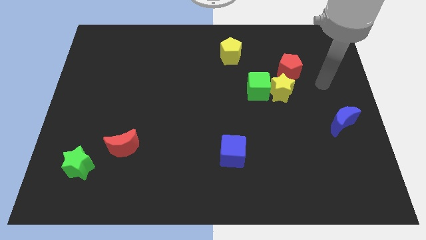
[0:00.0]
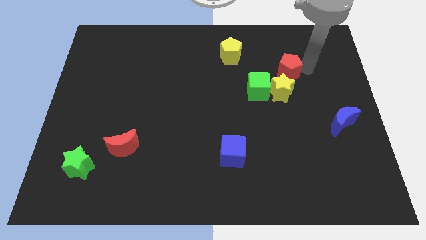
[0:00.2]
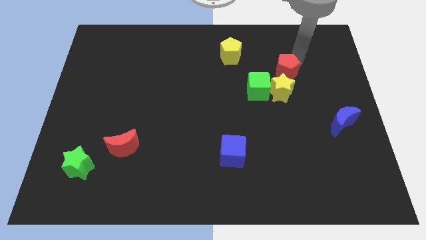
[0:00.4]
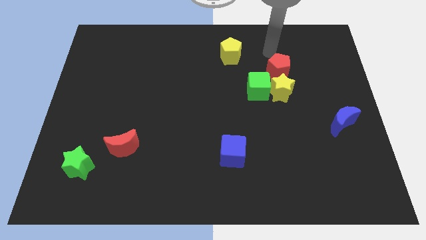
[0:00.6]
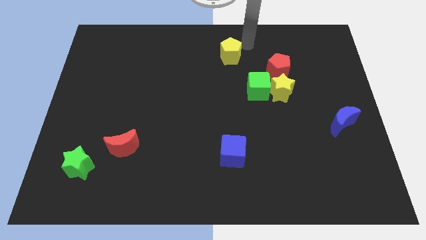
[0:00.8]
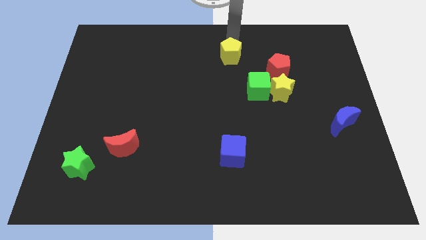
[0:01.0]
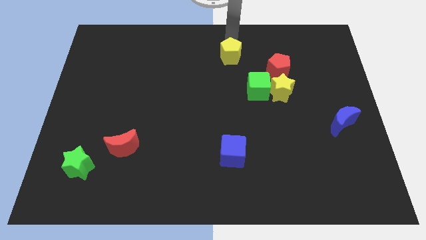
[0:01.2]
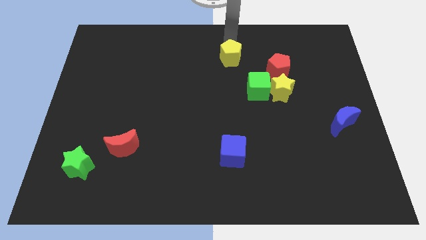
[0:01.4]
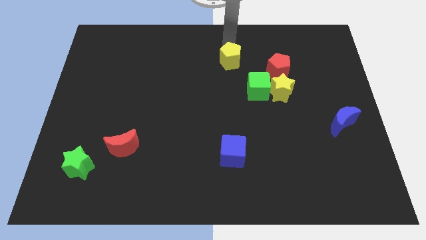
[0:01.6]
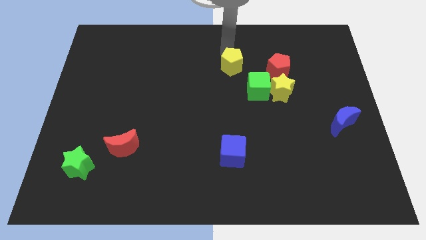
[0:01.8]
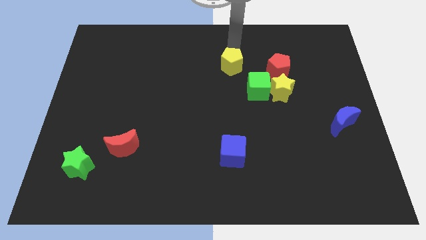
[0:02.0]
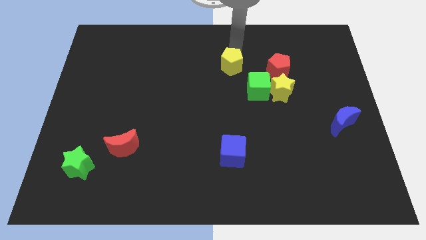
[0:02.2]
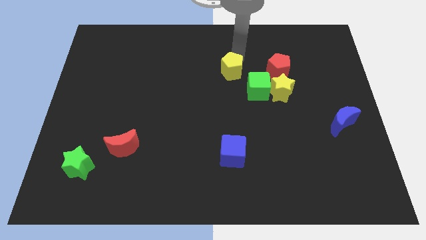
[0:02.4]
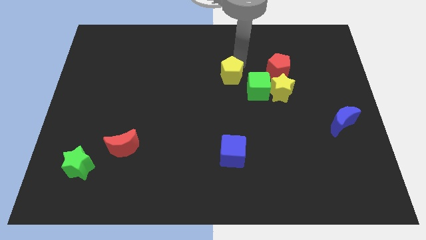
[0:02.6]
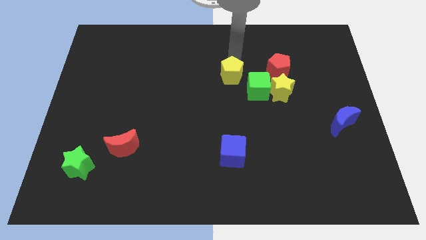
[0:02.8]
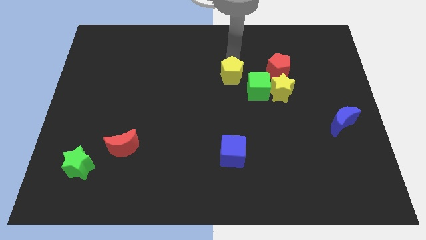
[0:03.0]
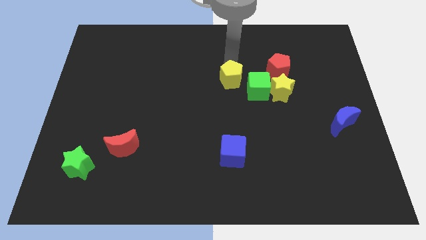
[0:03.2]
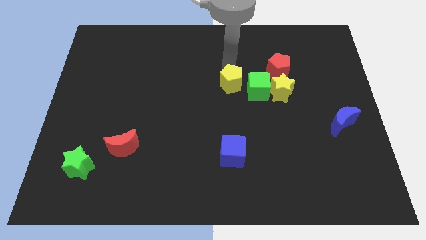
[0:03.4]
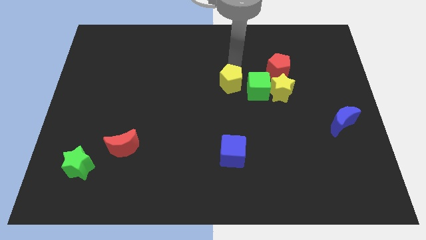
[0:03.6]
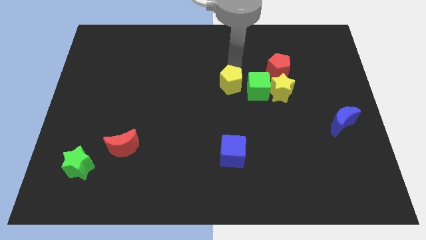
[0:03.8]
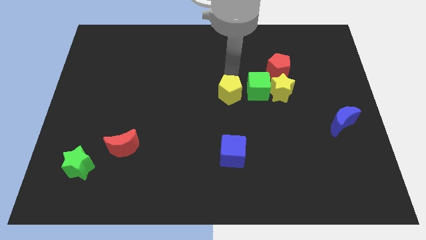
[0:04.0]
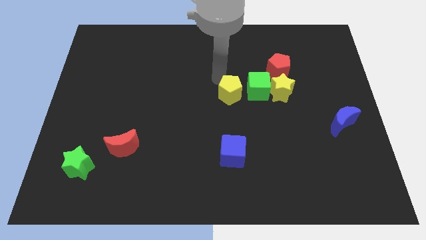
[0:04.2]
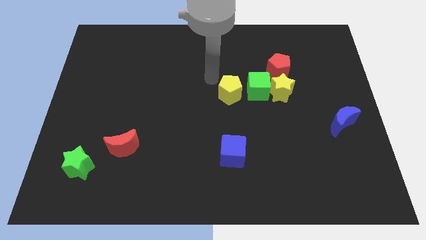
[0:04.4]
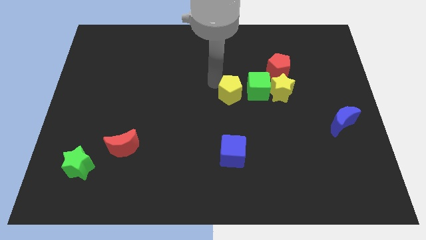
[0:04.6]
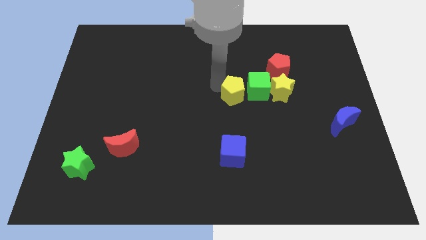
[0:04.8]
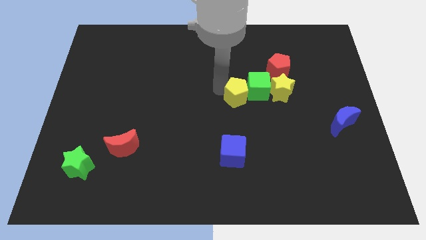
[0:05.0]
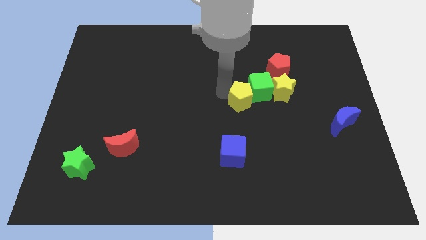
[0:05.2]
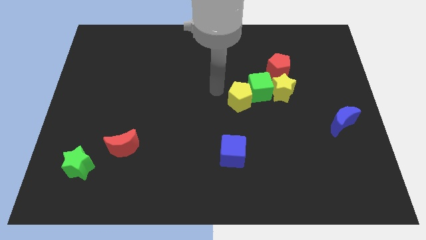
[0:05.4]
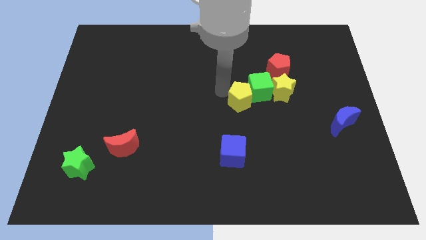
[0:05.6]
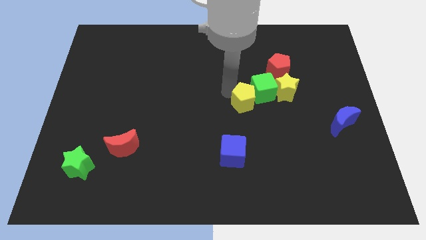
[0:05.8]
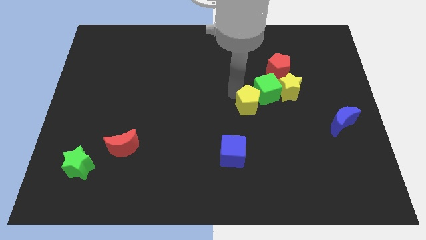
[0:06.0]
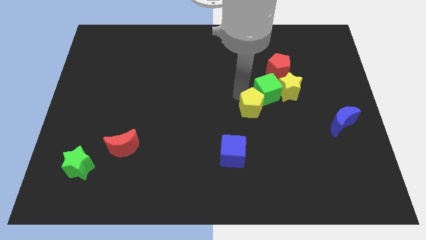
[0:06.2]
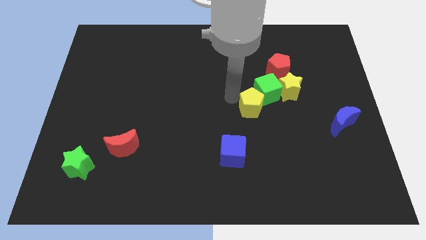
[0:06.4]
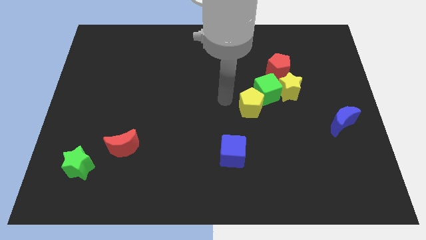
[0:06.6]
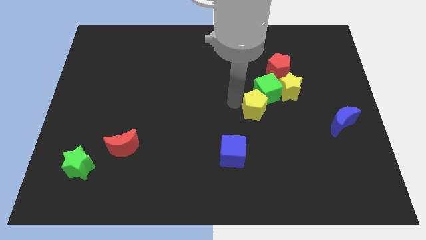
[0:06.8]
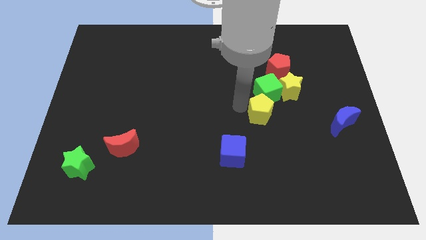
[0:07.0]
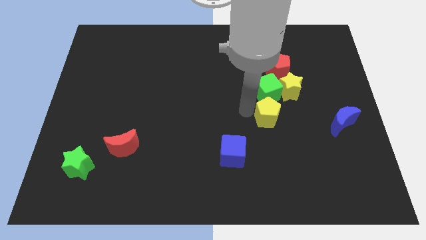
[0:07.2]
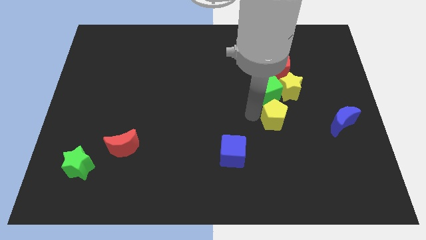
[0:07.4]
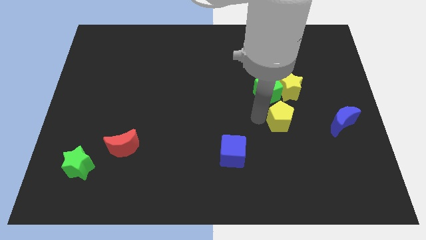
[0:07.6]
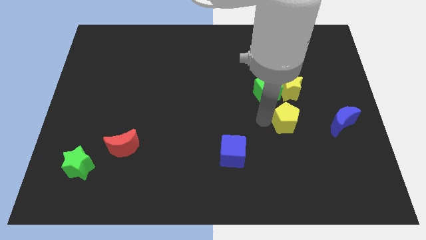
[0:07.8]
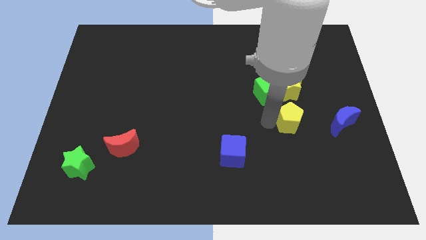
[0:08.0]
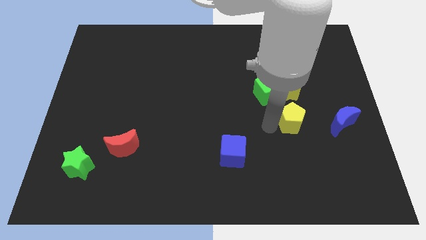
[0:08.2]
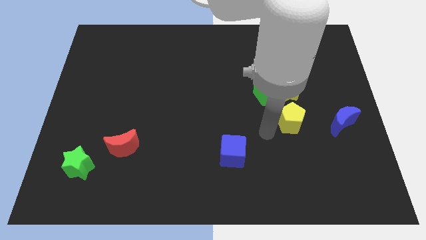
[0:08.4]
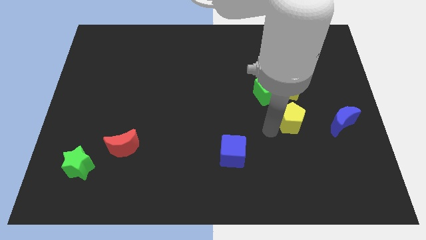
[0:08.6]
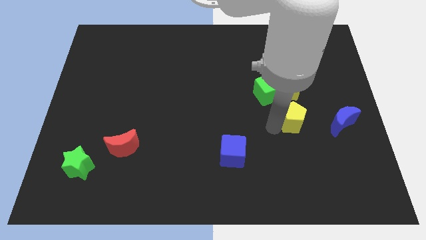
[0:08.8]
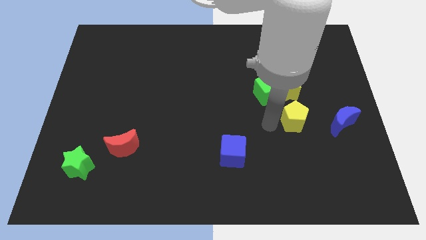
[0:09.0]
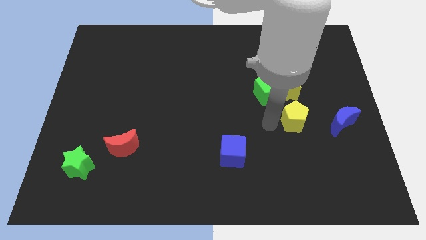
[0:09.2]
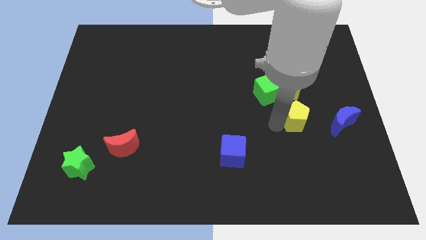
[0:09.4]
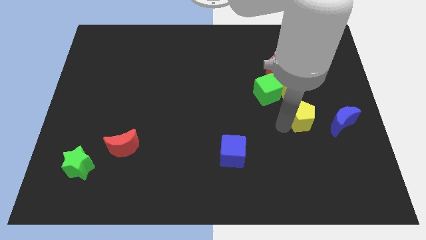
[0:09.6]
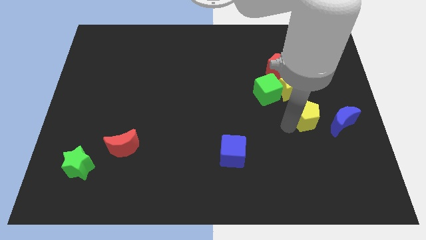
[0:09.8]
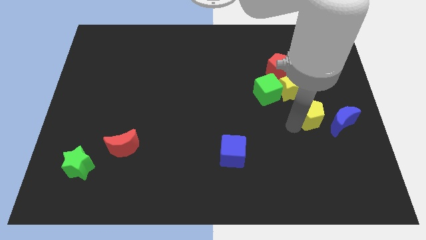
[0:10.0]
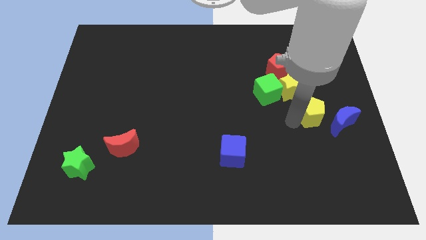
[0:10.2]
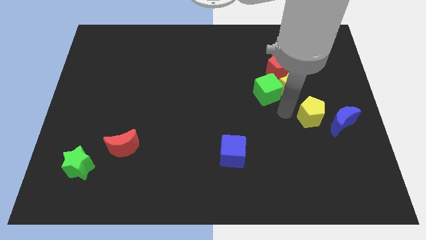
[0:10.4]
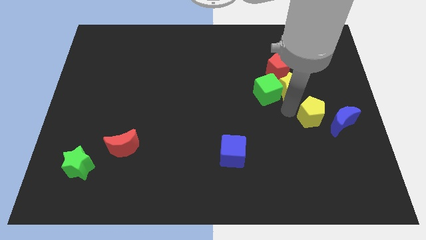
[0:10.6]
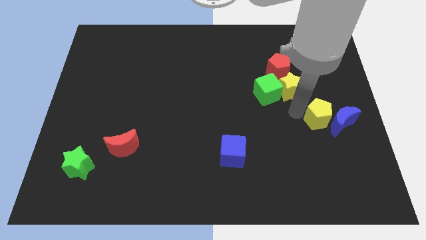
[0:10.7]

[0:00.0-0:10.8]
put the yellow pentagon next to the blue moon

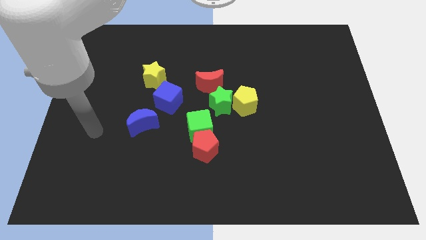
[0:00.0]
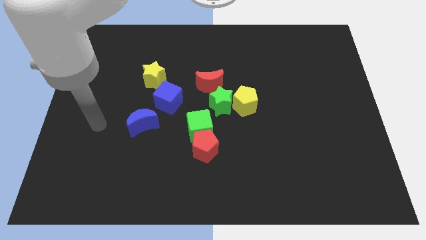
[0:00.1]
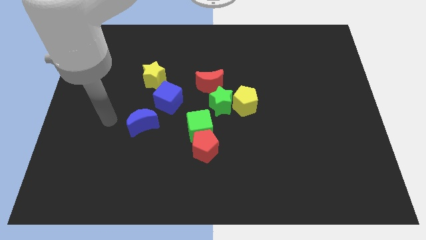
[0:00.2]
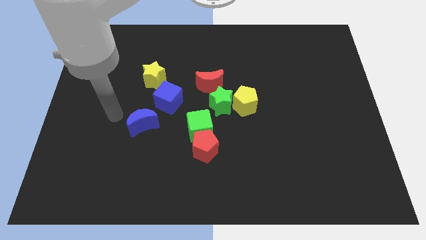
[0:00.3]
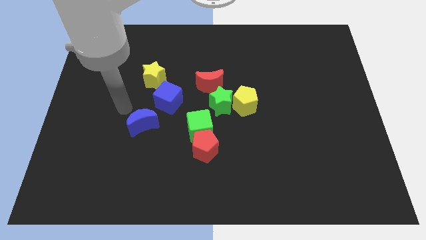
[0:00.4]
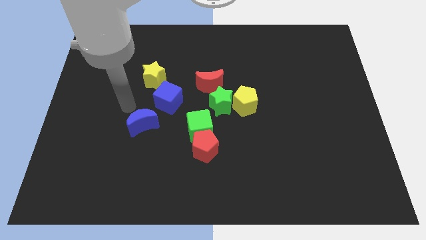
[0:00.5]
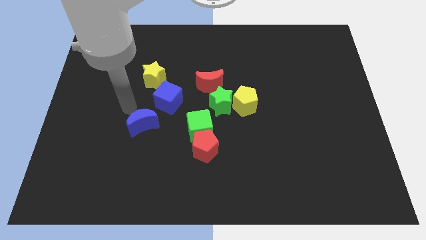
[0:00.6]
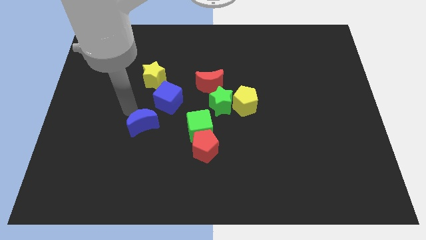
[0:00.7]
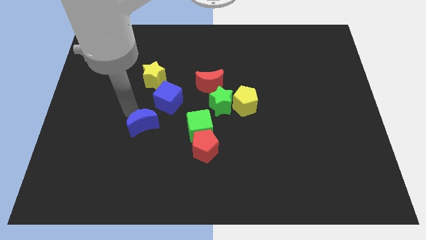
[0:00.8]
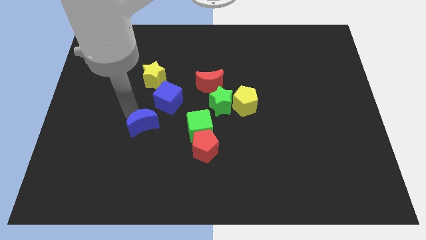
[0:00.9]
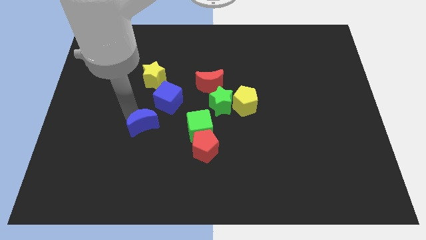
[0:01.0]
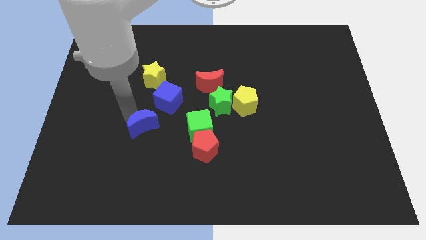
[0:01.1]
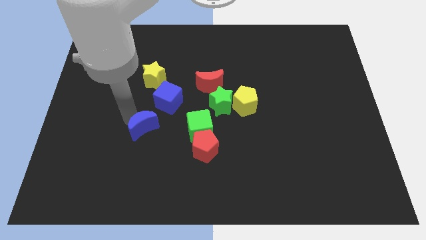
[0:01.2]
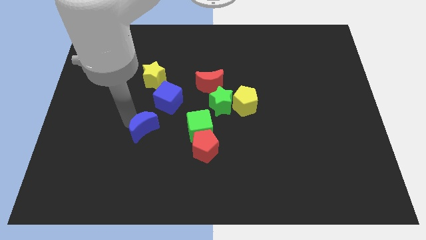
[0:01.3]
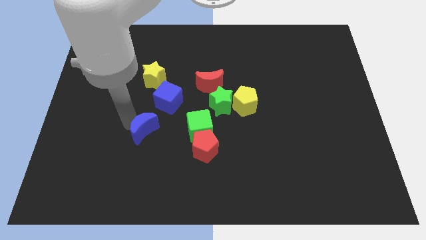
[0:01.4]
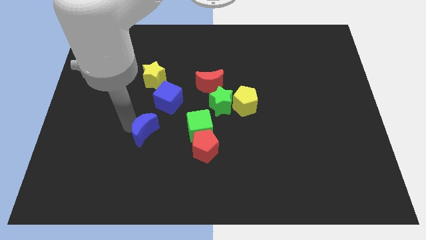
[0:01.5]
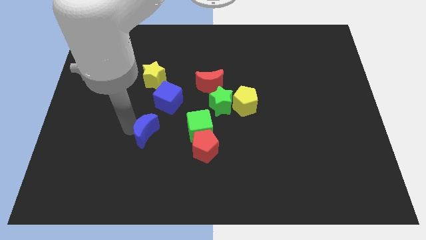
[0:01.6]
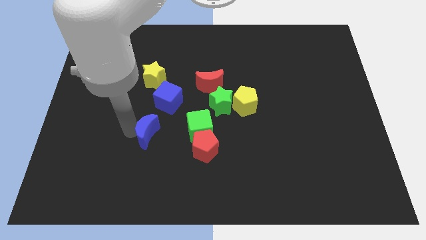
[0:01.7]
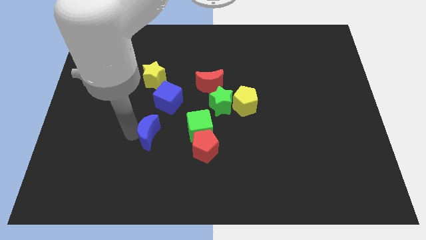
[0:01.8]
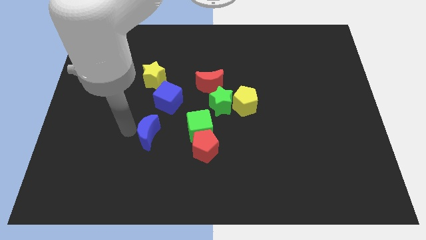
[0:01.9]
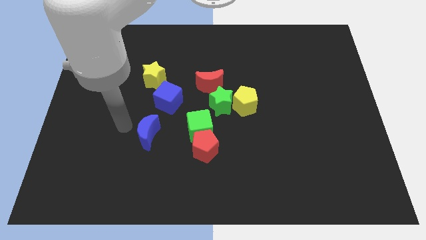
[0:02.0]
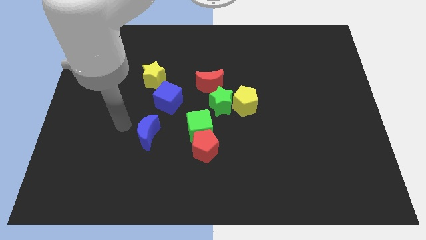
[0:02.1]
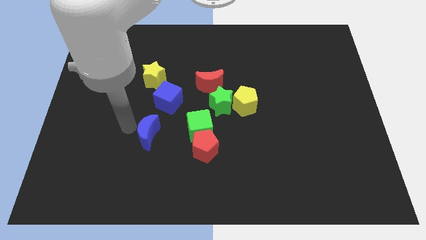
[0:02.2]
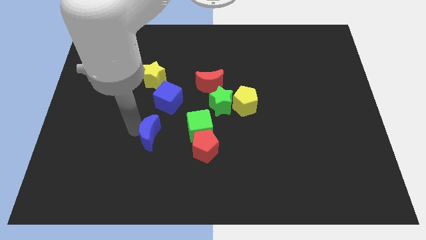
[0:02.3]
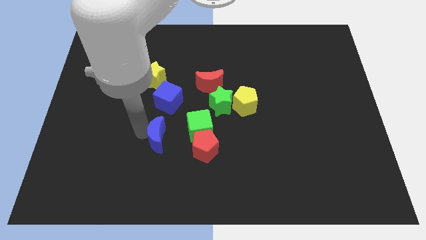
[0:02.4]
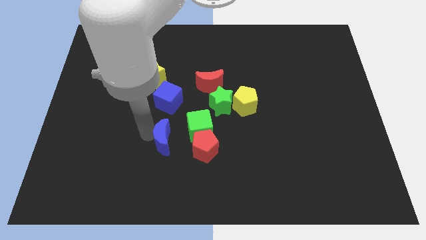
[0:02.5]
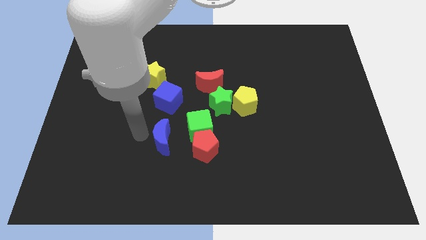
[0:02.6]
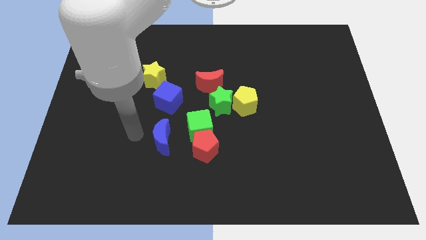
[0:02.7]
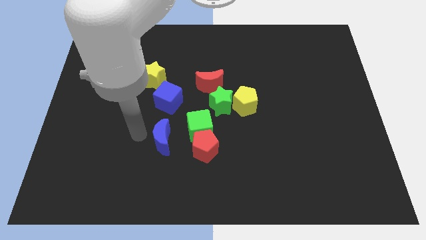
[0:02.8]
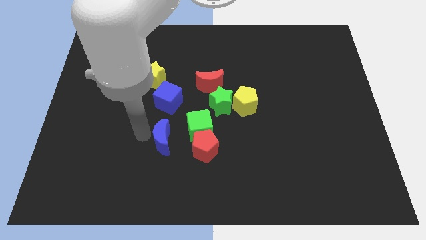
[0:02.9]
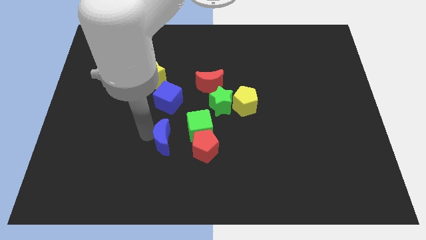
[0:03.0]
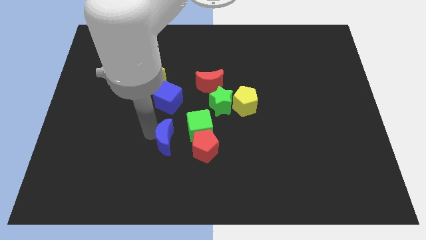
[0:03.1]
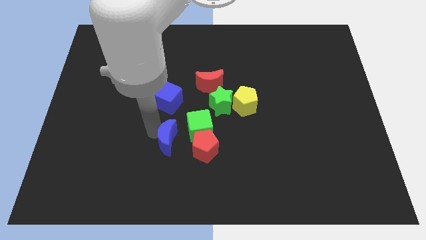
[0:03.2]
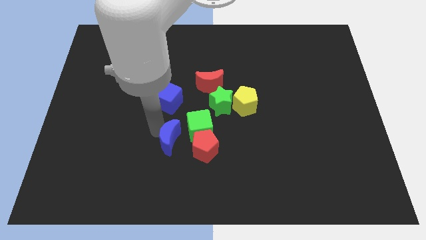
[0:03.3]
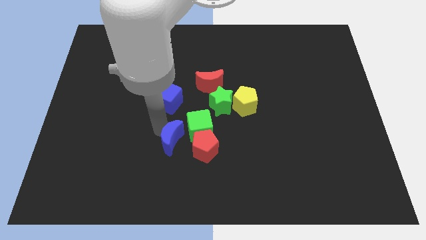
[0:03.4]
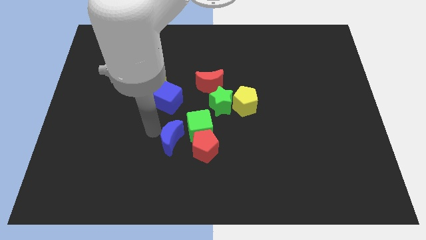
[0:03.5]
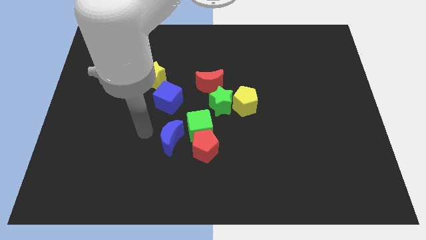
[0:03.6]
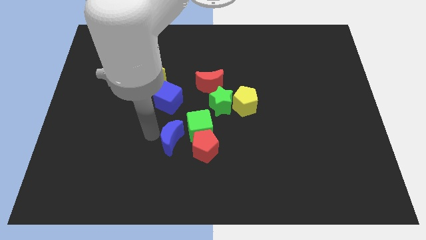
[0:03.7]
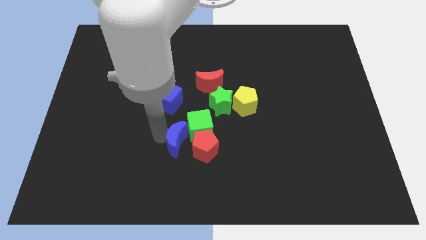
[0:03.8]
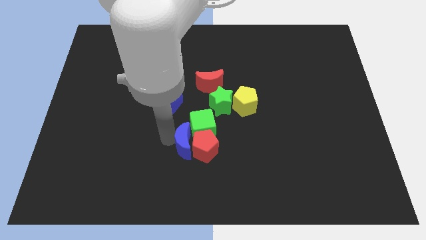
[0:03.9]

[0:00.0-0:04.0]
move the blue moon towards the red pentagon
